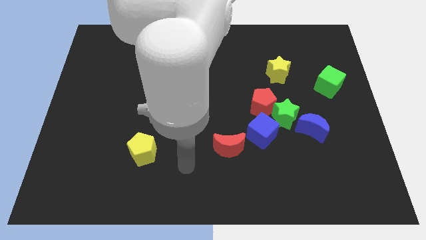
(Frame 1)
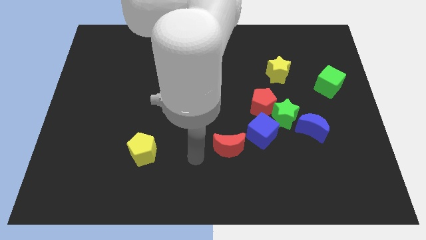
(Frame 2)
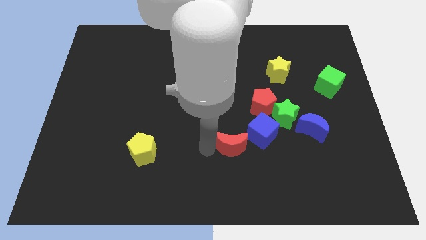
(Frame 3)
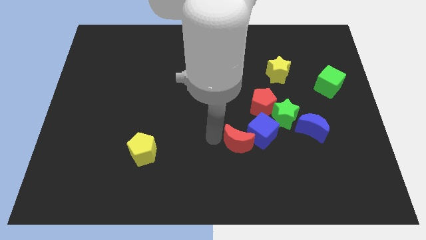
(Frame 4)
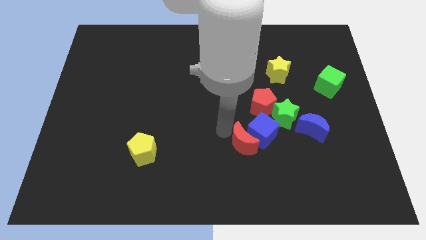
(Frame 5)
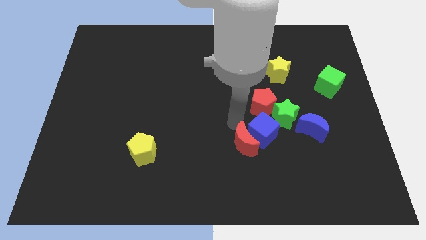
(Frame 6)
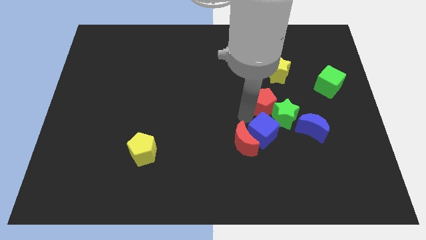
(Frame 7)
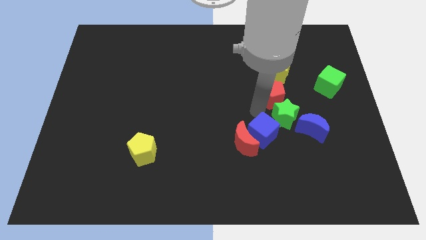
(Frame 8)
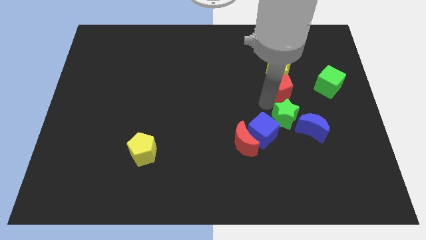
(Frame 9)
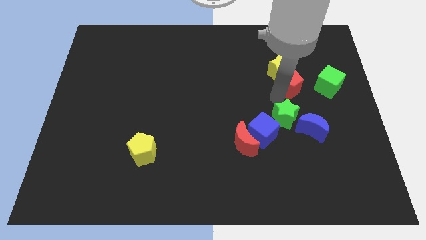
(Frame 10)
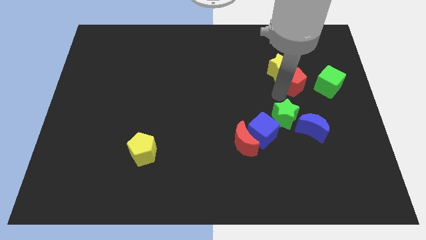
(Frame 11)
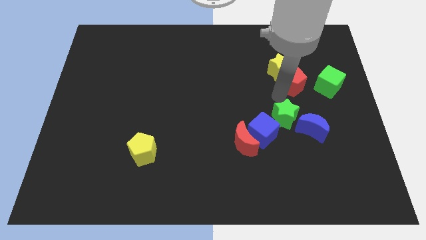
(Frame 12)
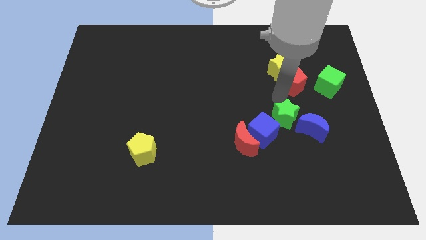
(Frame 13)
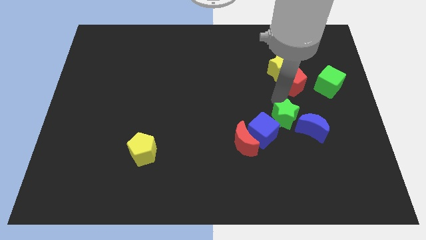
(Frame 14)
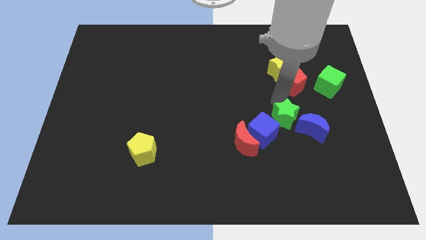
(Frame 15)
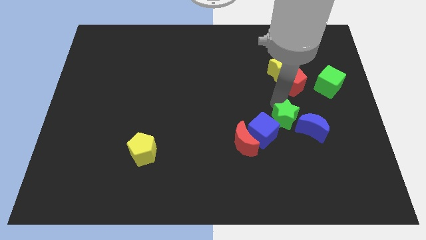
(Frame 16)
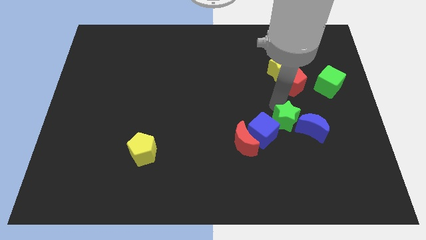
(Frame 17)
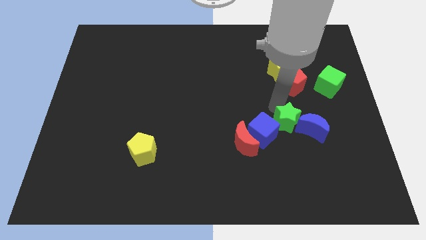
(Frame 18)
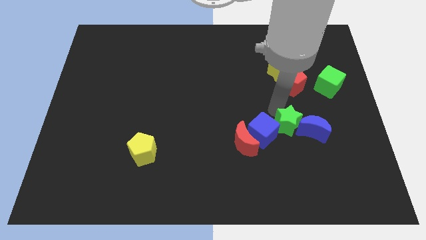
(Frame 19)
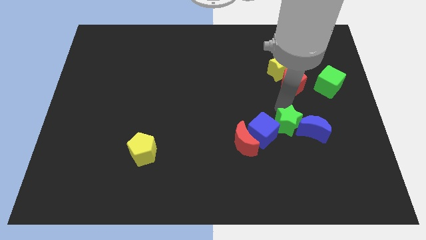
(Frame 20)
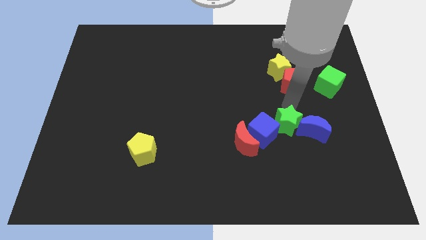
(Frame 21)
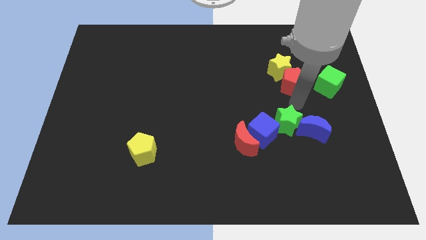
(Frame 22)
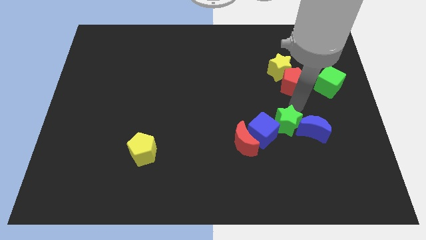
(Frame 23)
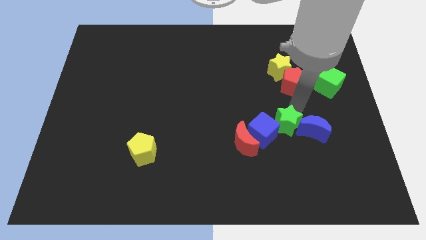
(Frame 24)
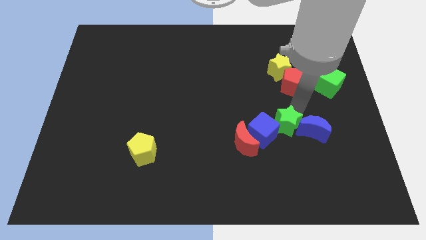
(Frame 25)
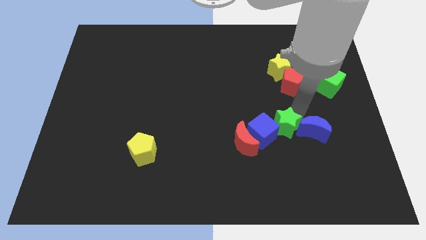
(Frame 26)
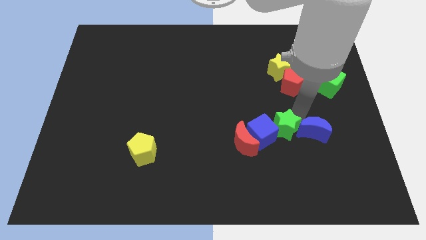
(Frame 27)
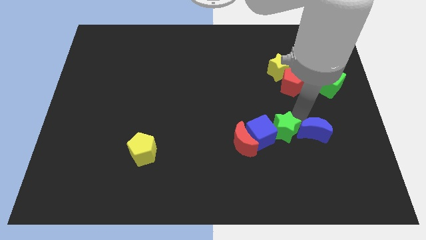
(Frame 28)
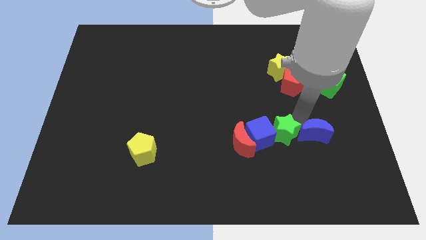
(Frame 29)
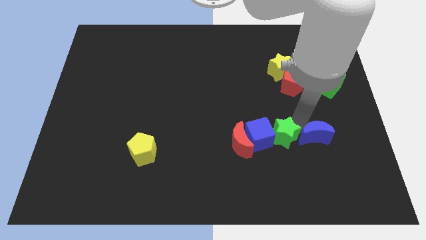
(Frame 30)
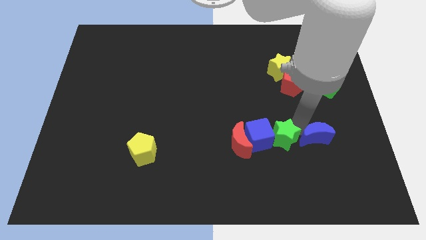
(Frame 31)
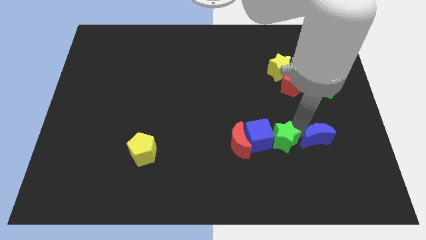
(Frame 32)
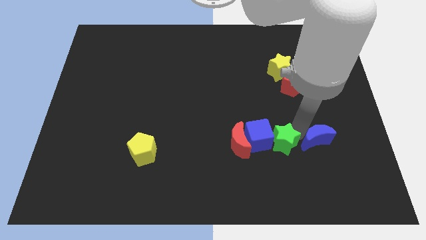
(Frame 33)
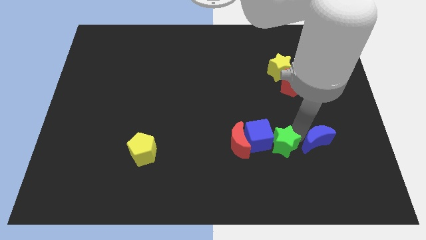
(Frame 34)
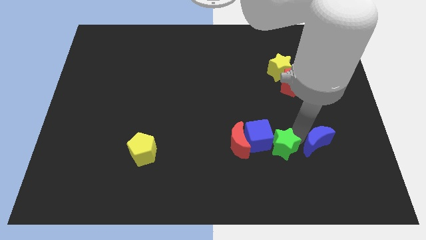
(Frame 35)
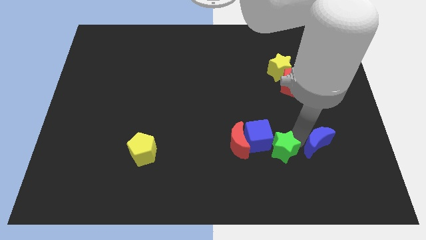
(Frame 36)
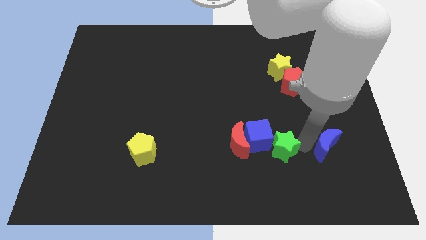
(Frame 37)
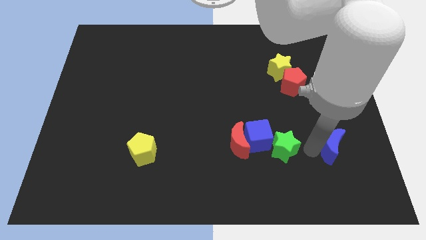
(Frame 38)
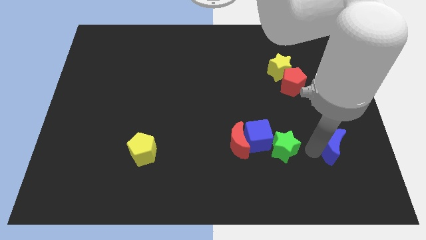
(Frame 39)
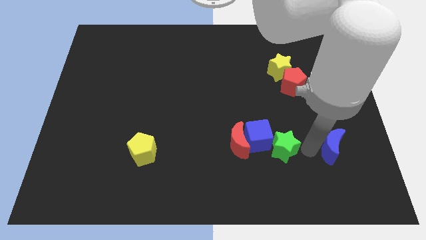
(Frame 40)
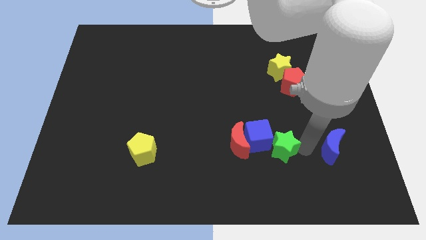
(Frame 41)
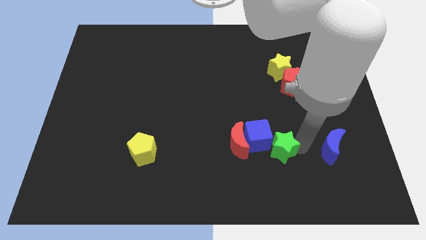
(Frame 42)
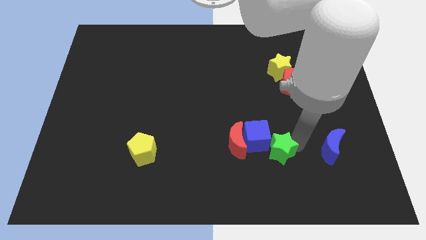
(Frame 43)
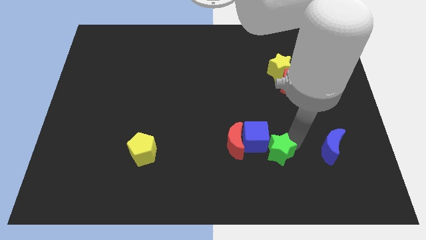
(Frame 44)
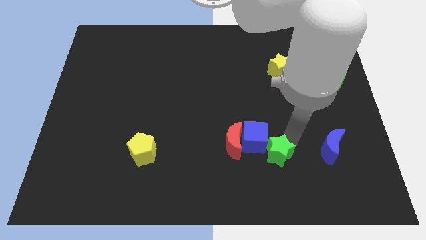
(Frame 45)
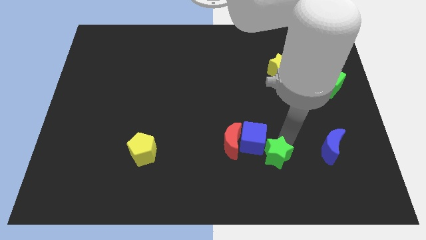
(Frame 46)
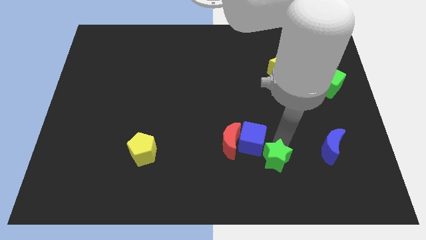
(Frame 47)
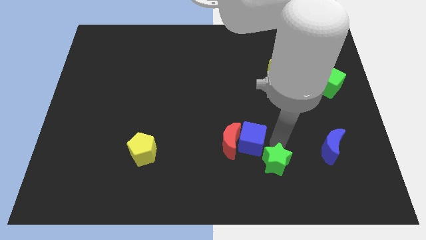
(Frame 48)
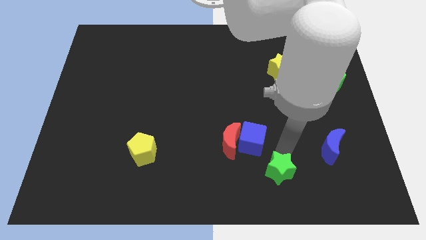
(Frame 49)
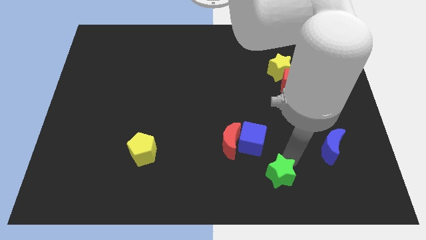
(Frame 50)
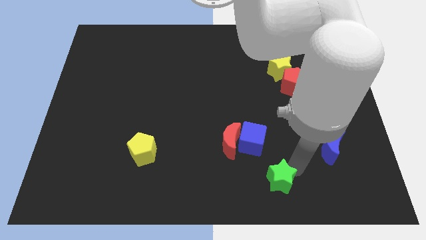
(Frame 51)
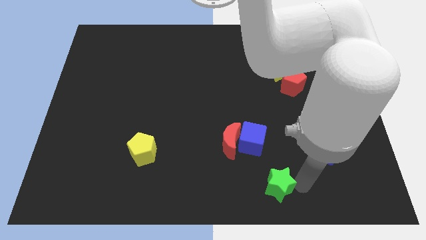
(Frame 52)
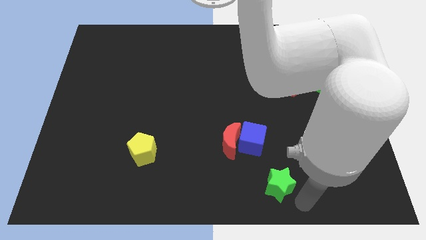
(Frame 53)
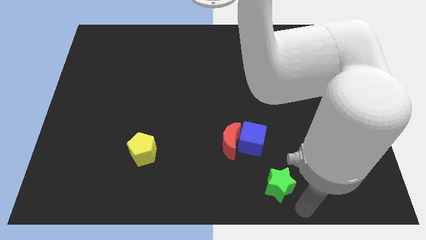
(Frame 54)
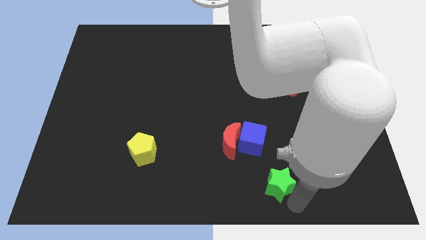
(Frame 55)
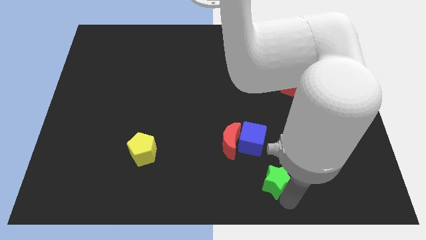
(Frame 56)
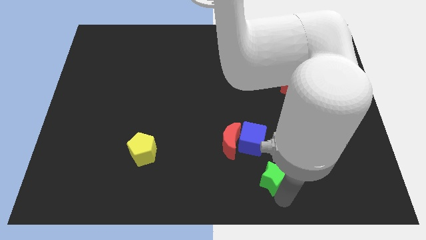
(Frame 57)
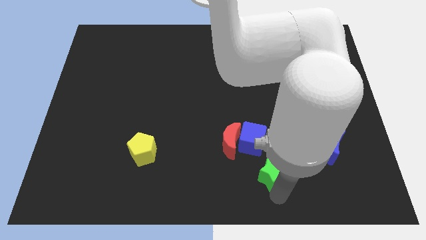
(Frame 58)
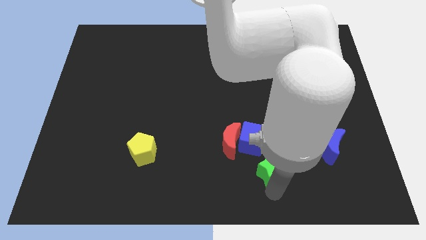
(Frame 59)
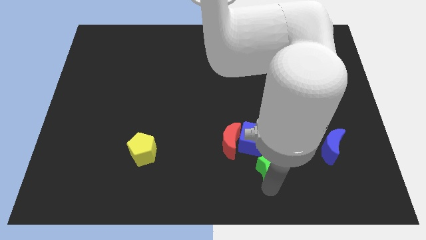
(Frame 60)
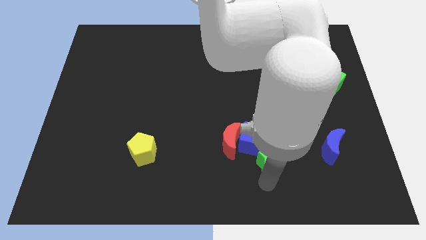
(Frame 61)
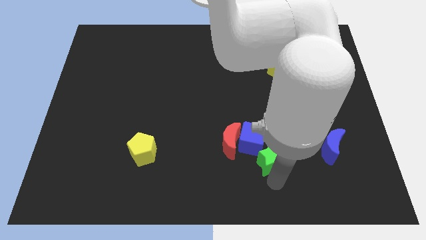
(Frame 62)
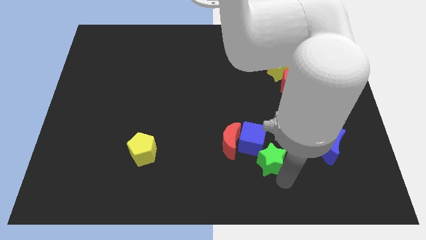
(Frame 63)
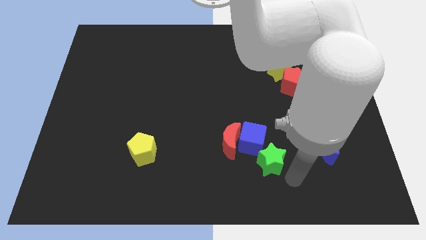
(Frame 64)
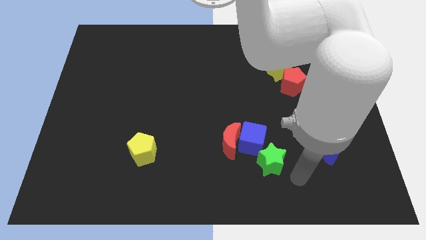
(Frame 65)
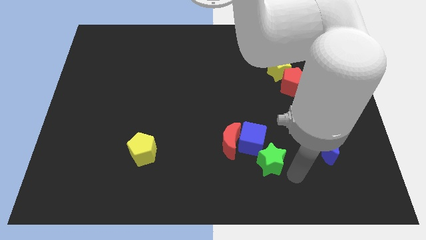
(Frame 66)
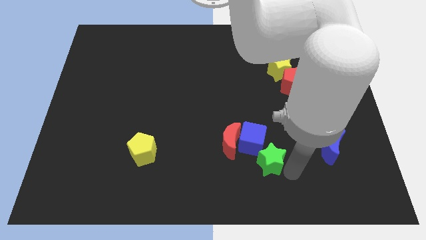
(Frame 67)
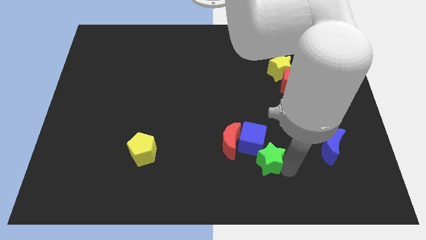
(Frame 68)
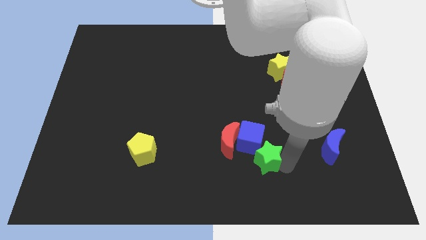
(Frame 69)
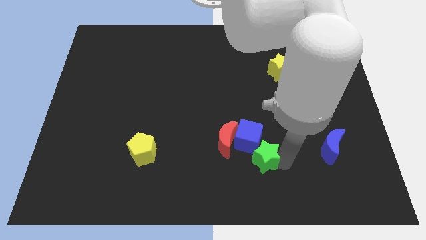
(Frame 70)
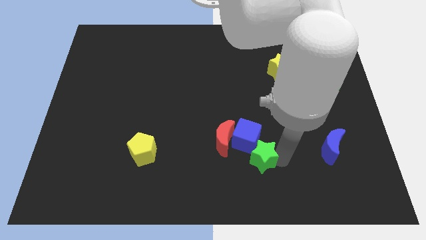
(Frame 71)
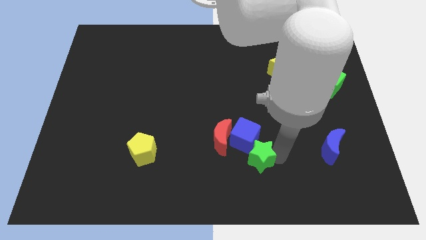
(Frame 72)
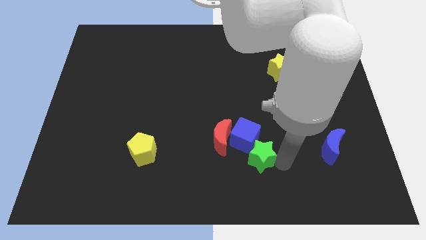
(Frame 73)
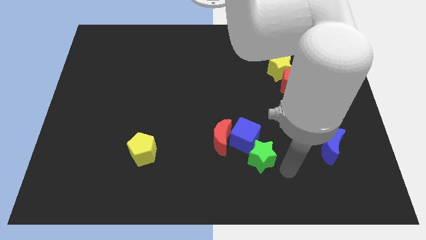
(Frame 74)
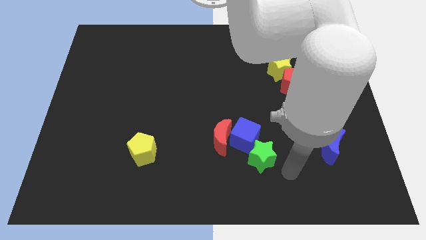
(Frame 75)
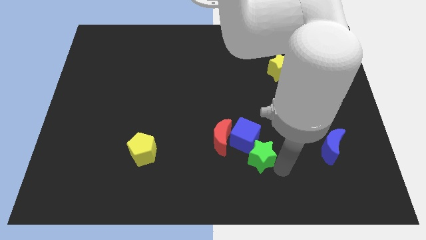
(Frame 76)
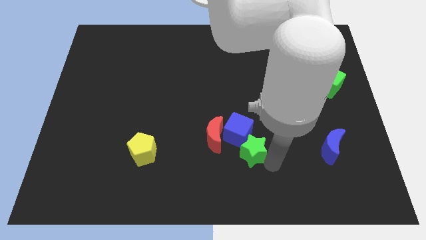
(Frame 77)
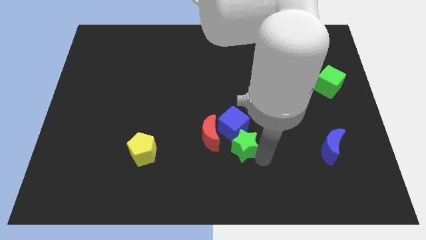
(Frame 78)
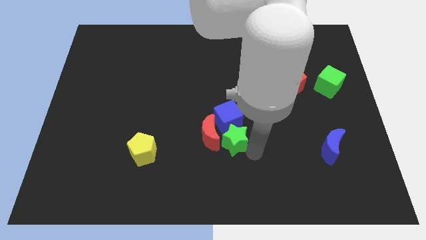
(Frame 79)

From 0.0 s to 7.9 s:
put the green star close to the red moon
